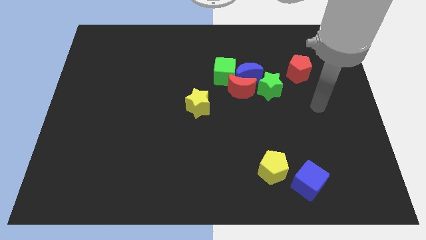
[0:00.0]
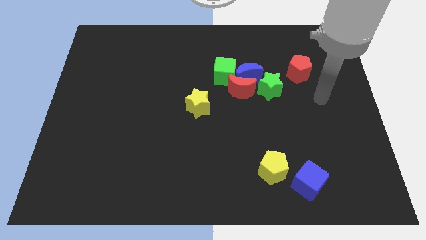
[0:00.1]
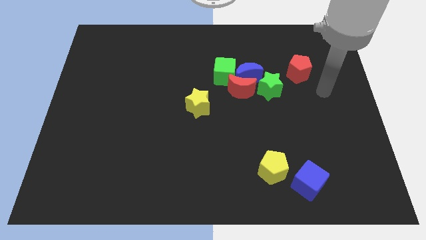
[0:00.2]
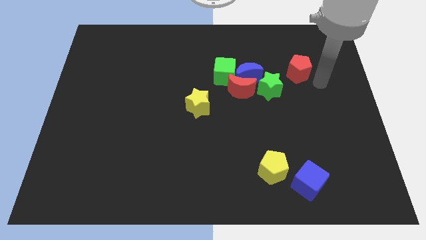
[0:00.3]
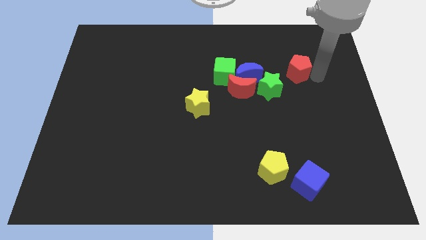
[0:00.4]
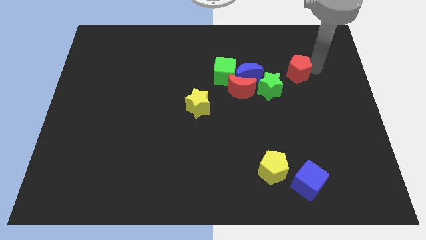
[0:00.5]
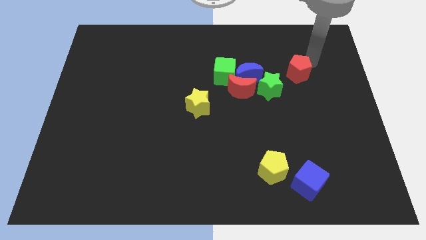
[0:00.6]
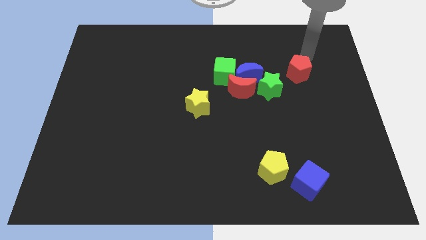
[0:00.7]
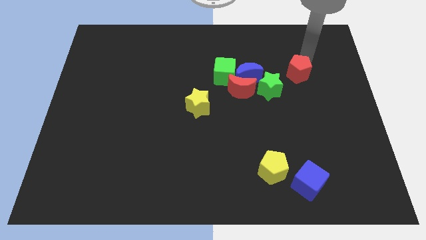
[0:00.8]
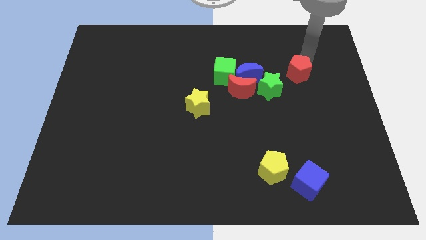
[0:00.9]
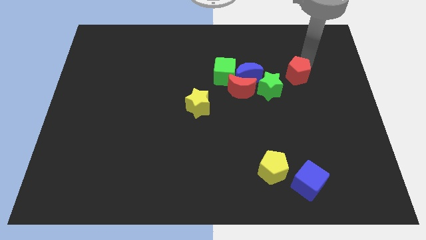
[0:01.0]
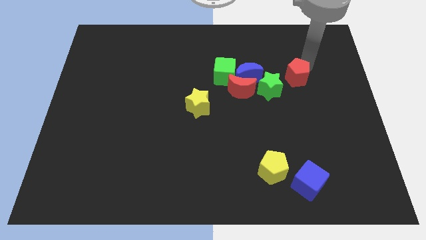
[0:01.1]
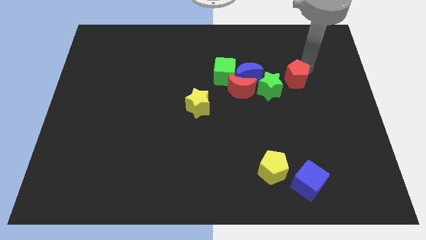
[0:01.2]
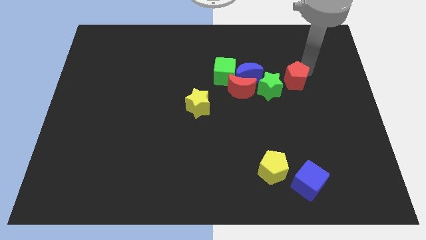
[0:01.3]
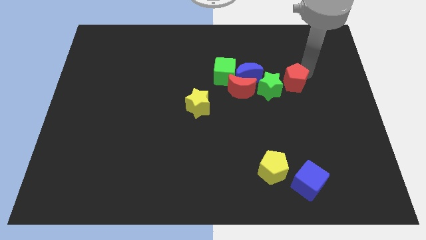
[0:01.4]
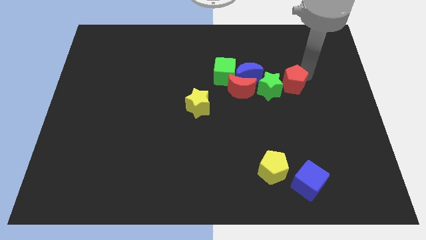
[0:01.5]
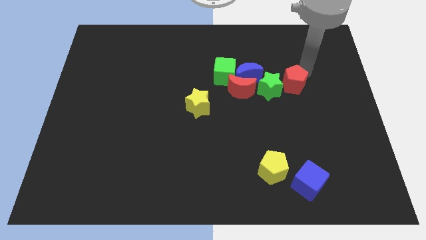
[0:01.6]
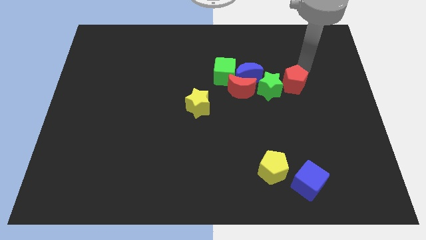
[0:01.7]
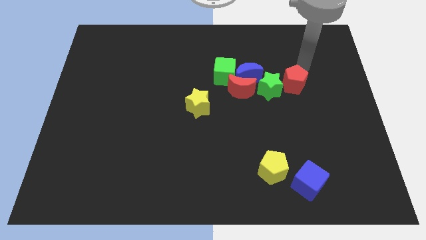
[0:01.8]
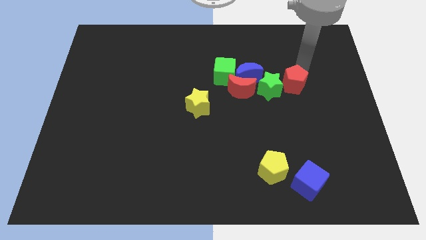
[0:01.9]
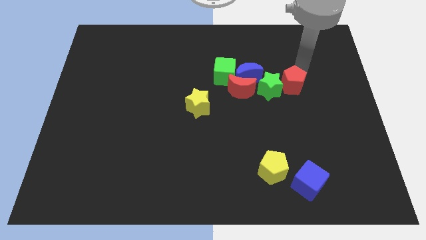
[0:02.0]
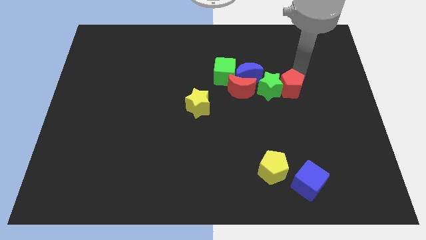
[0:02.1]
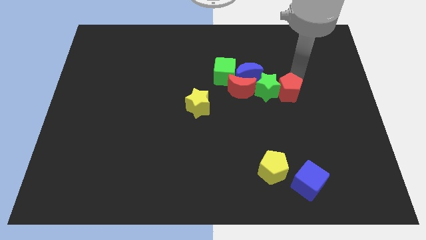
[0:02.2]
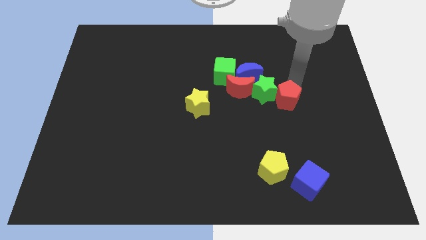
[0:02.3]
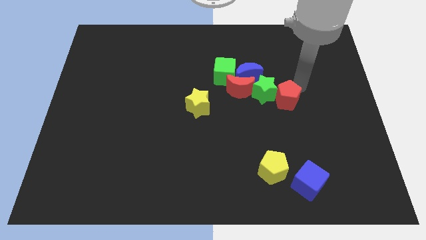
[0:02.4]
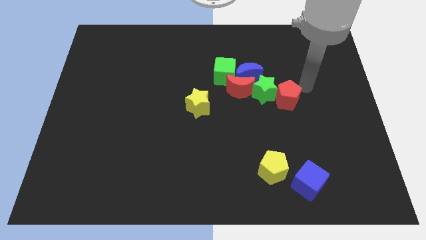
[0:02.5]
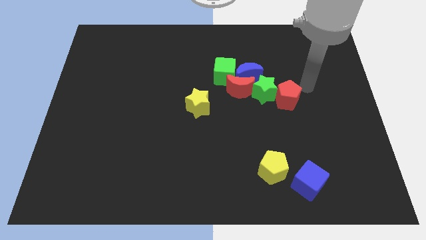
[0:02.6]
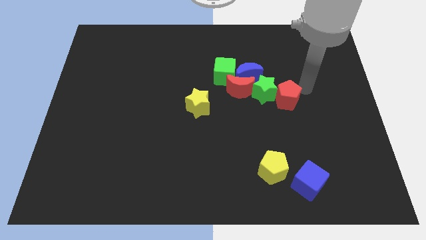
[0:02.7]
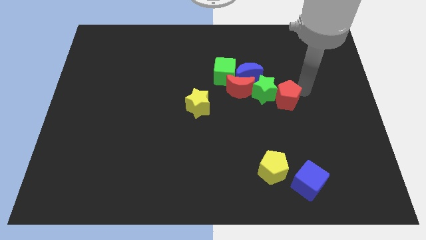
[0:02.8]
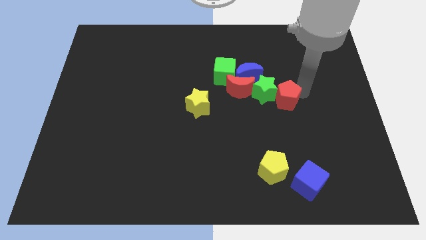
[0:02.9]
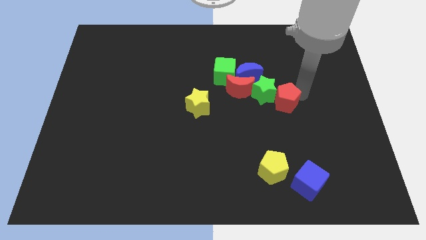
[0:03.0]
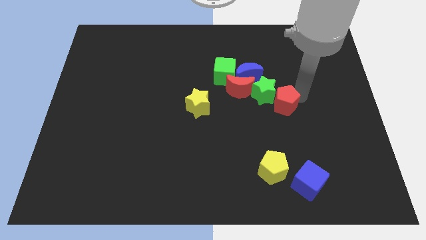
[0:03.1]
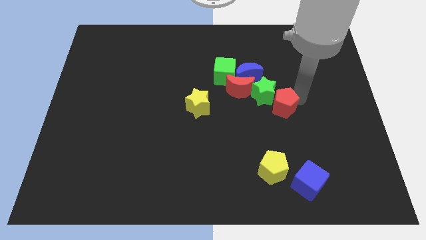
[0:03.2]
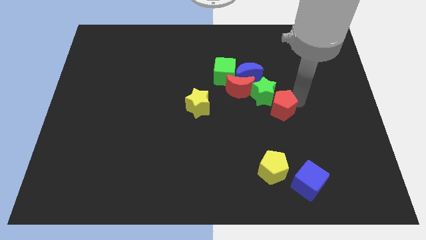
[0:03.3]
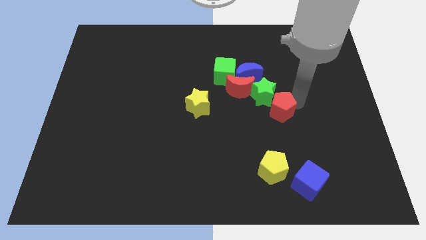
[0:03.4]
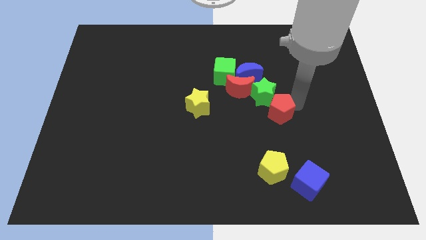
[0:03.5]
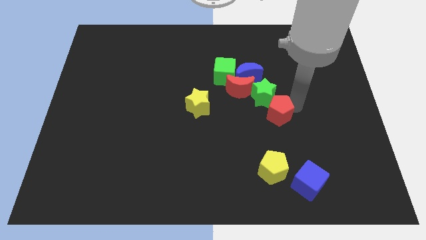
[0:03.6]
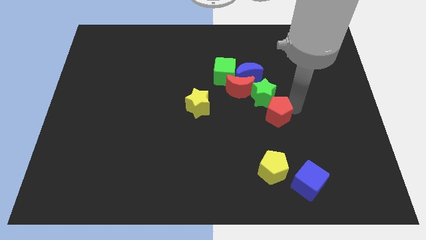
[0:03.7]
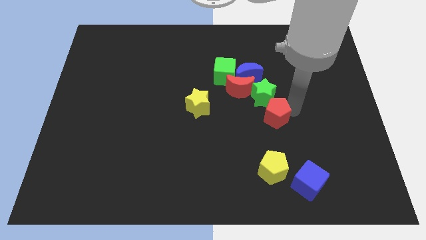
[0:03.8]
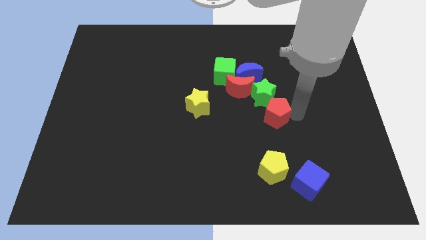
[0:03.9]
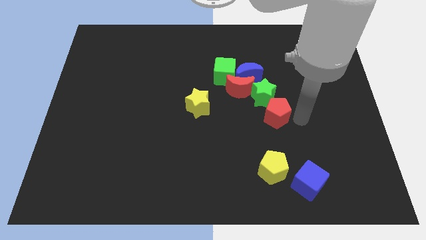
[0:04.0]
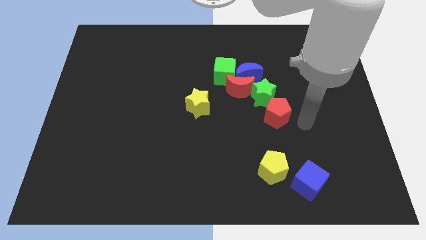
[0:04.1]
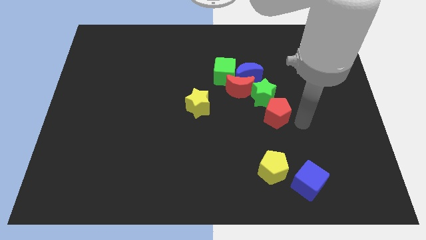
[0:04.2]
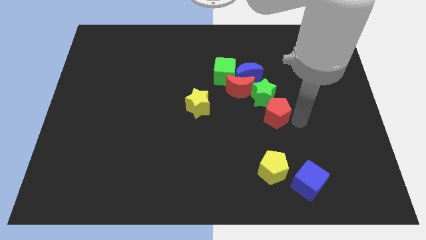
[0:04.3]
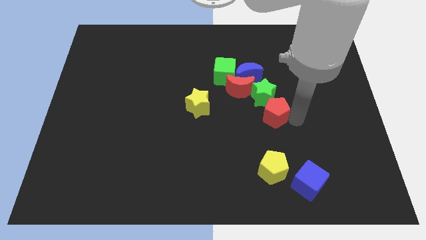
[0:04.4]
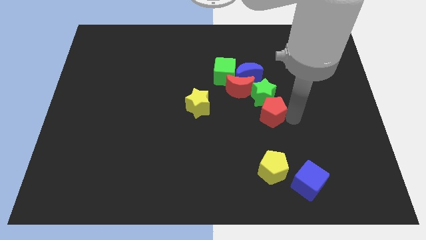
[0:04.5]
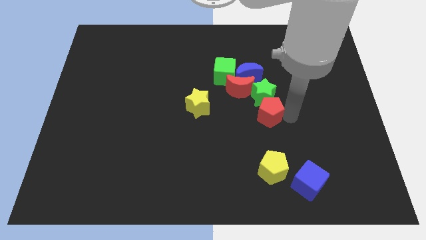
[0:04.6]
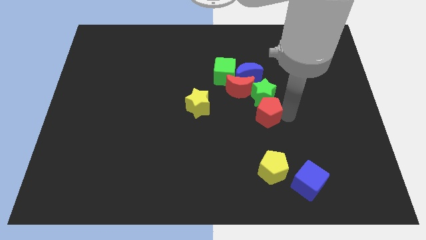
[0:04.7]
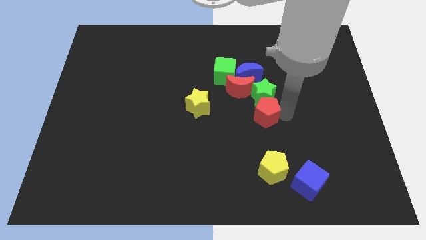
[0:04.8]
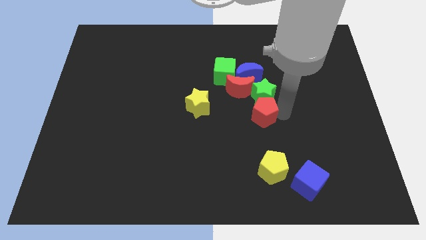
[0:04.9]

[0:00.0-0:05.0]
push the red pentagon to the middle

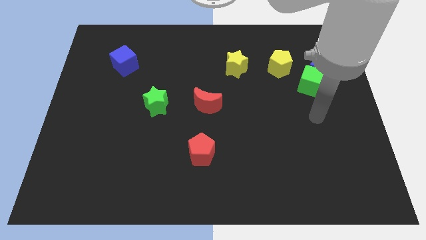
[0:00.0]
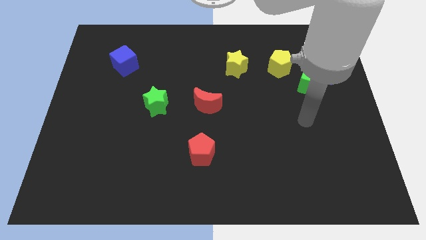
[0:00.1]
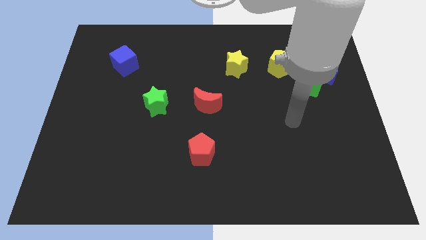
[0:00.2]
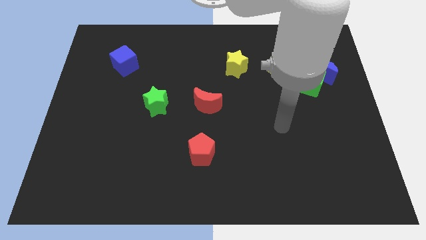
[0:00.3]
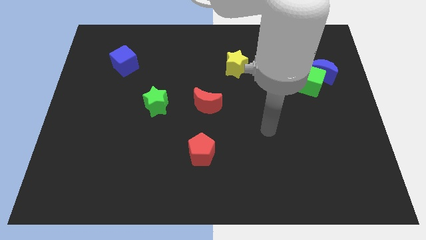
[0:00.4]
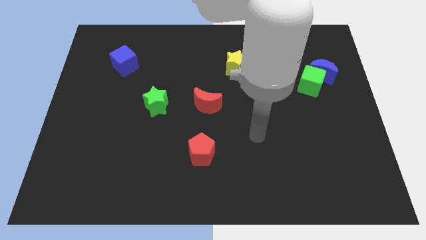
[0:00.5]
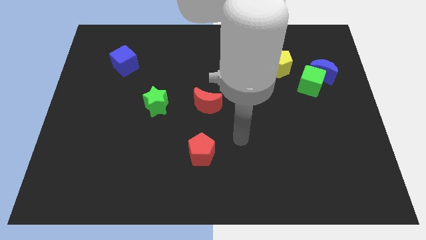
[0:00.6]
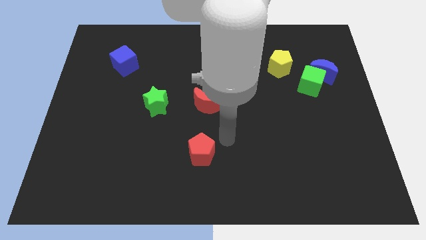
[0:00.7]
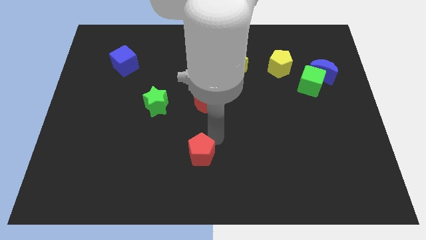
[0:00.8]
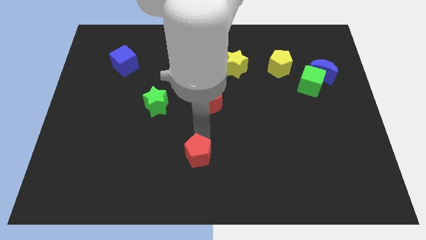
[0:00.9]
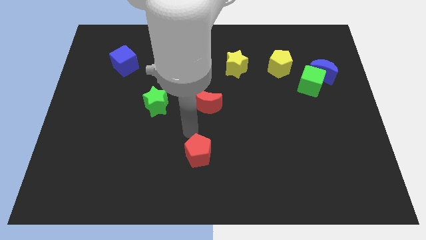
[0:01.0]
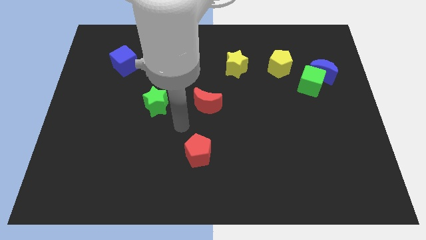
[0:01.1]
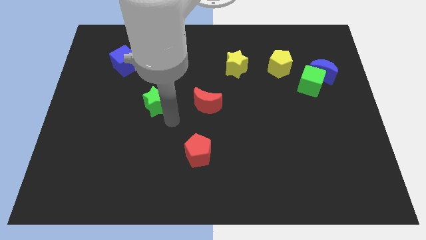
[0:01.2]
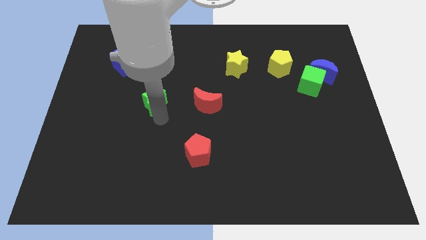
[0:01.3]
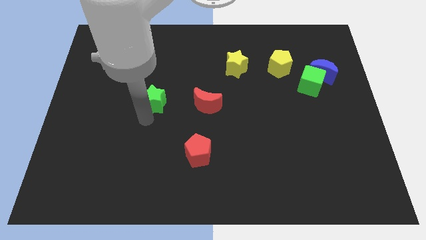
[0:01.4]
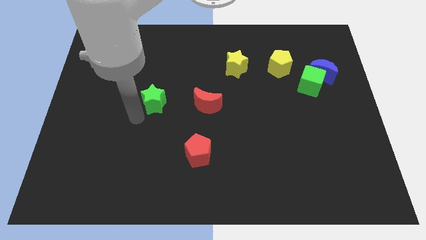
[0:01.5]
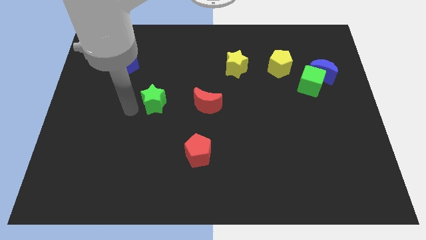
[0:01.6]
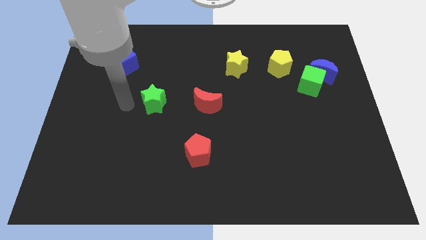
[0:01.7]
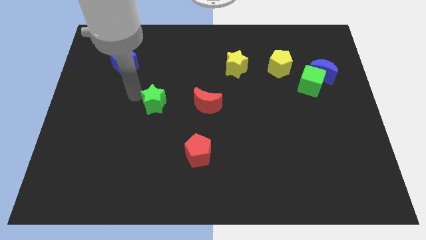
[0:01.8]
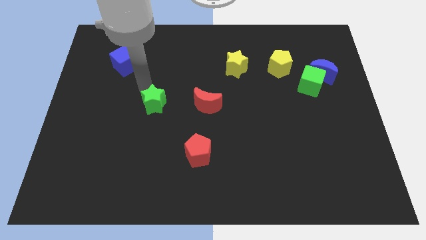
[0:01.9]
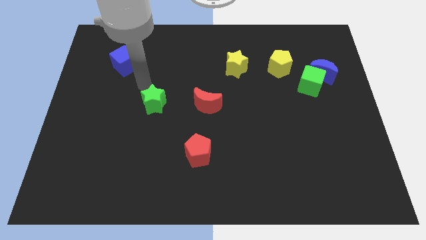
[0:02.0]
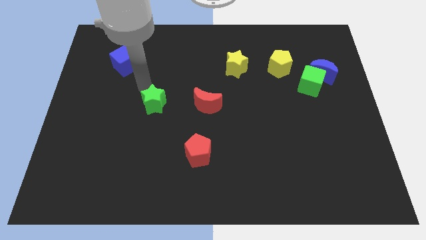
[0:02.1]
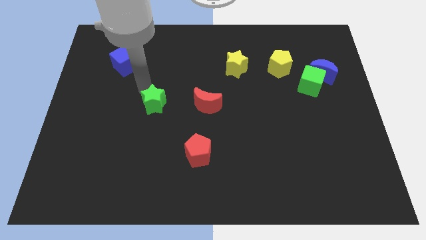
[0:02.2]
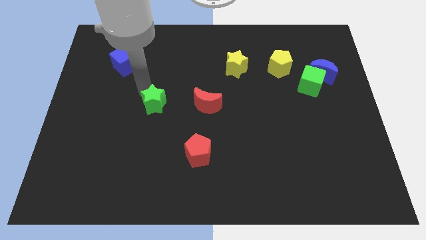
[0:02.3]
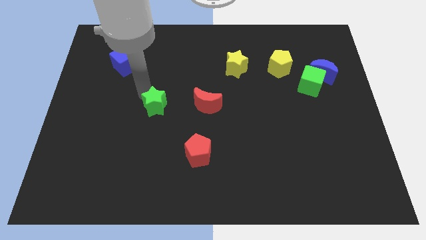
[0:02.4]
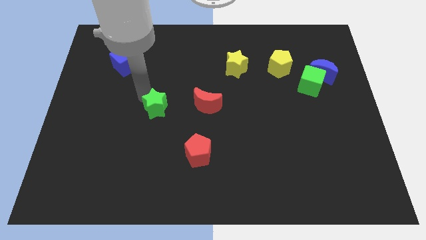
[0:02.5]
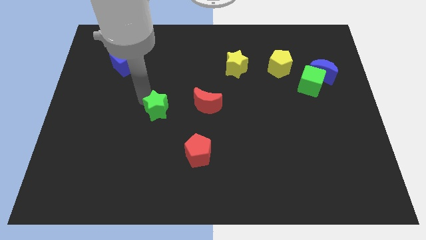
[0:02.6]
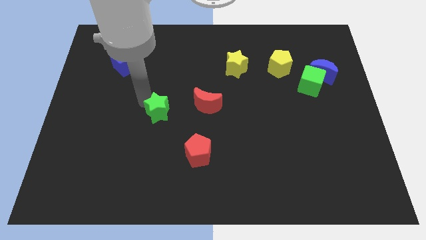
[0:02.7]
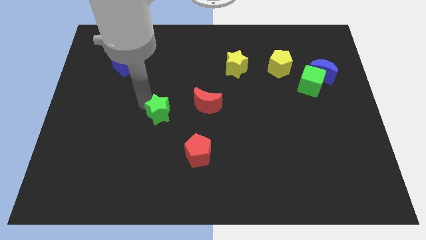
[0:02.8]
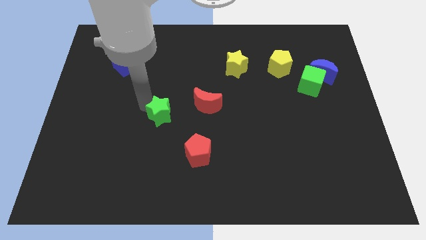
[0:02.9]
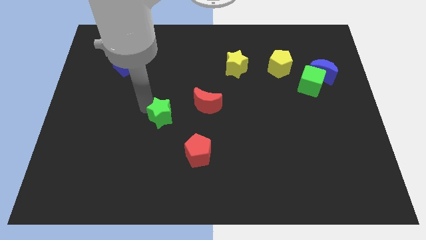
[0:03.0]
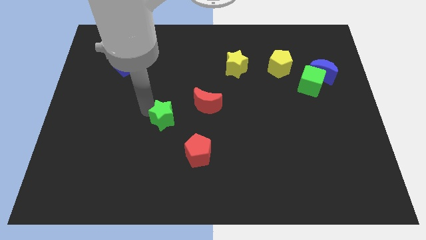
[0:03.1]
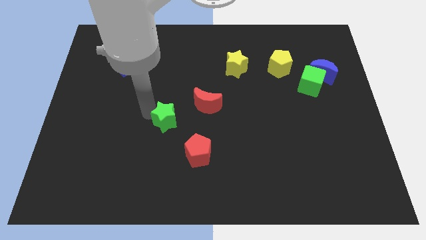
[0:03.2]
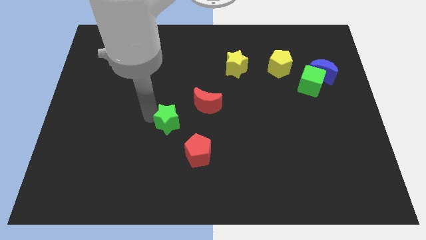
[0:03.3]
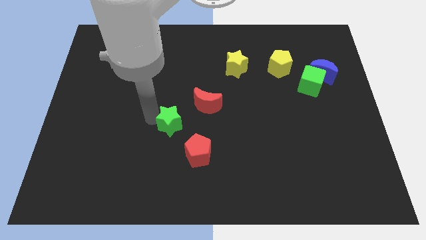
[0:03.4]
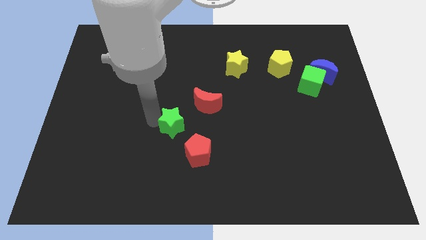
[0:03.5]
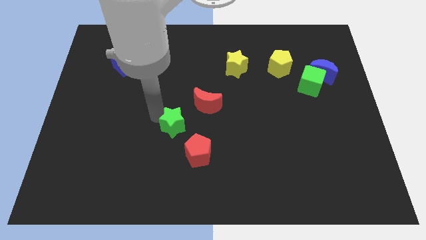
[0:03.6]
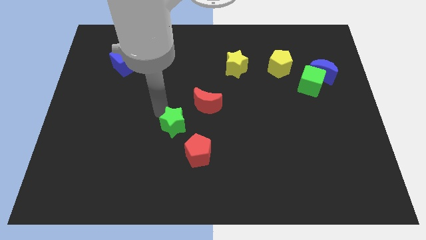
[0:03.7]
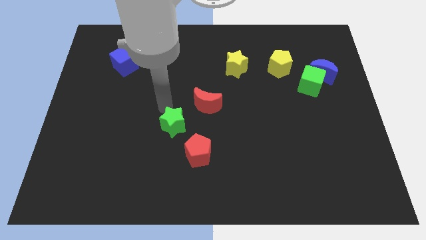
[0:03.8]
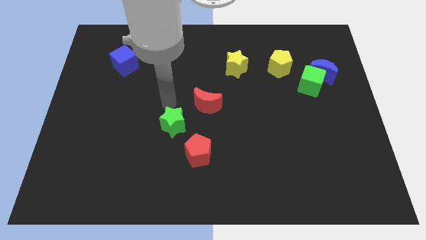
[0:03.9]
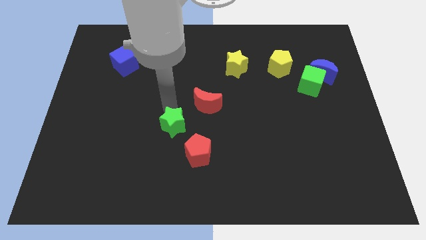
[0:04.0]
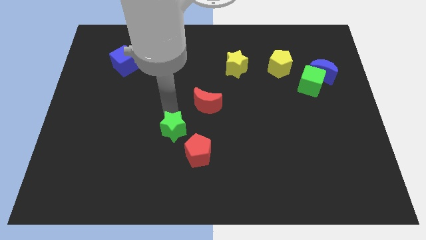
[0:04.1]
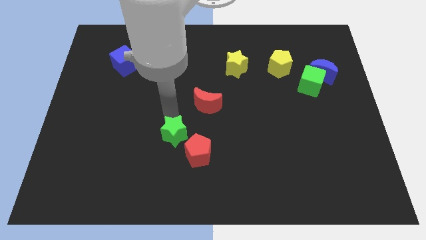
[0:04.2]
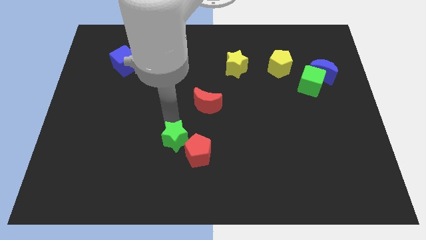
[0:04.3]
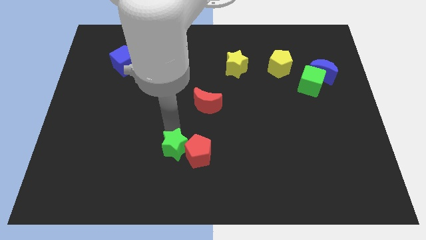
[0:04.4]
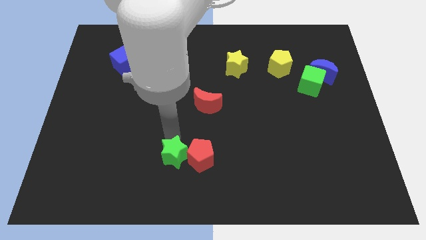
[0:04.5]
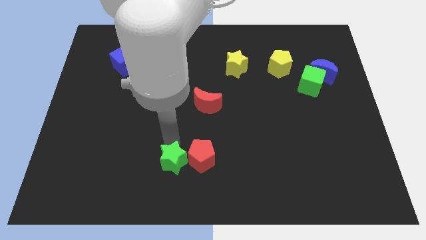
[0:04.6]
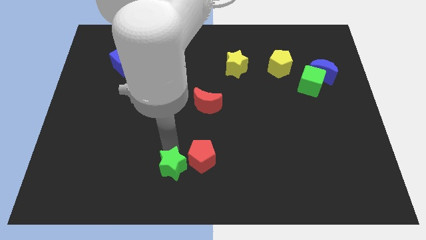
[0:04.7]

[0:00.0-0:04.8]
push the green star to the bottom side
